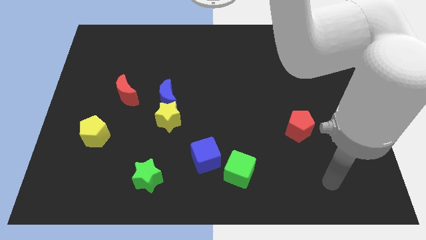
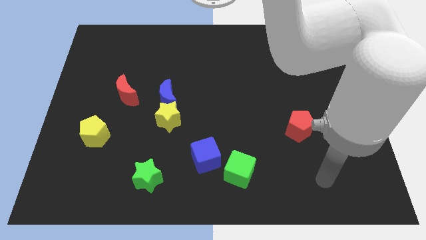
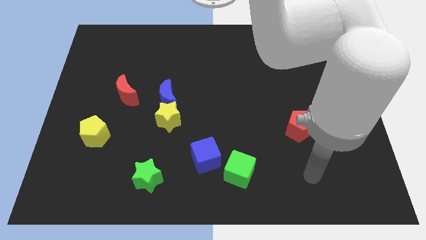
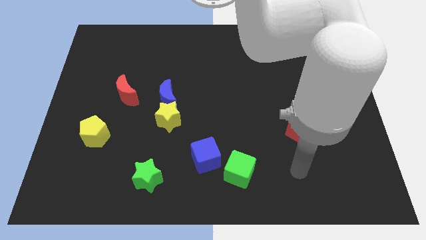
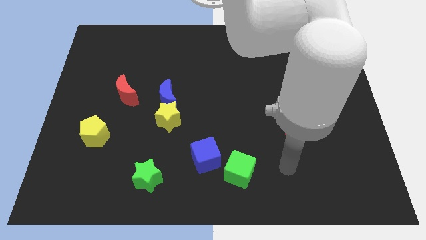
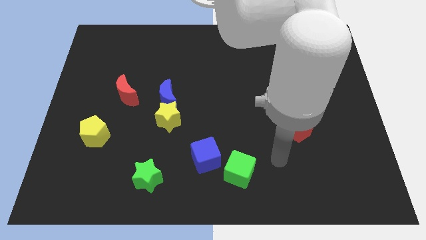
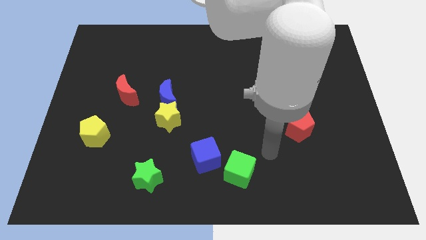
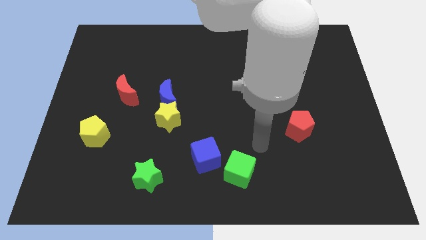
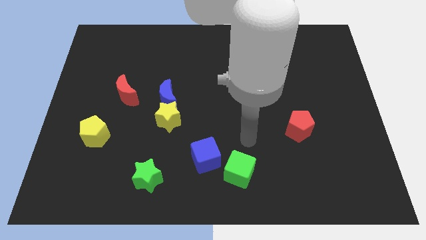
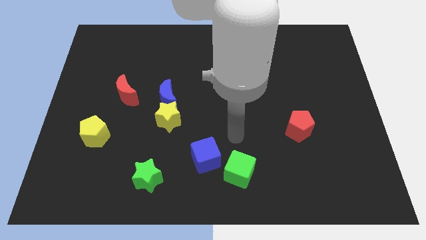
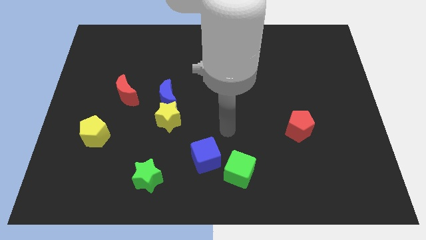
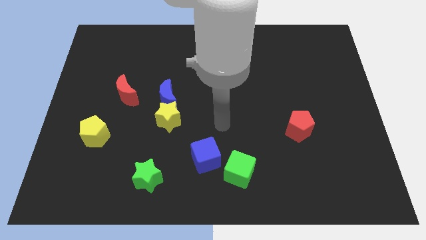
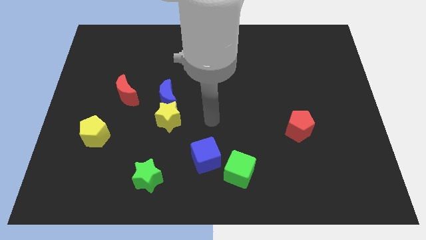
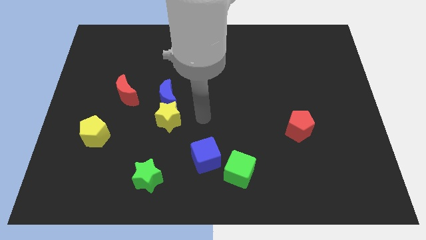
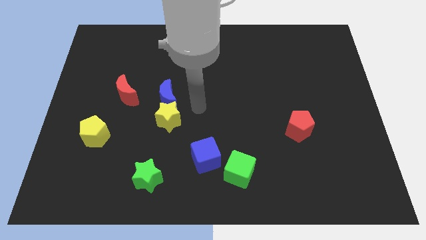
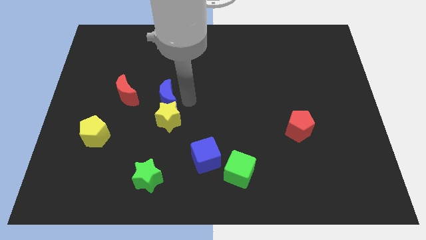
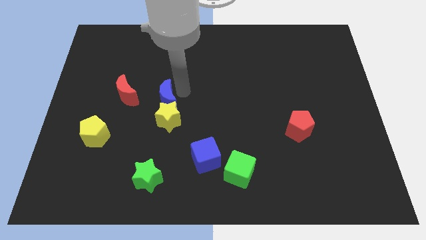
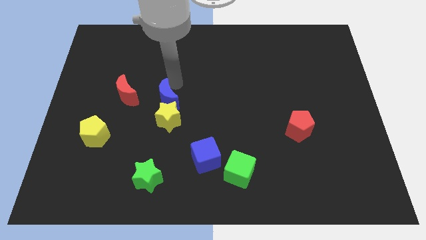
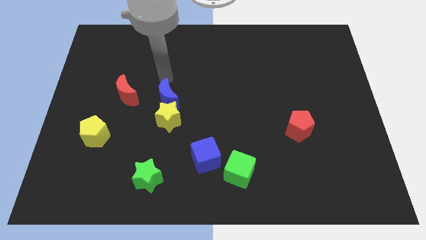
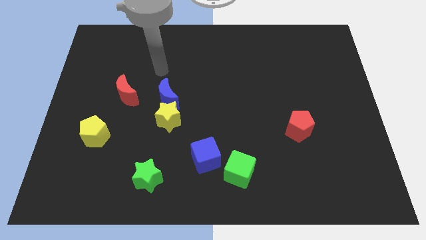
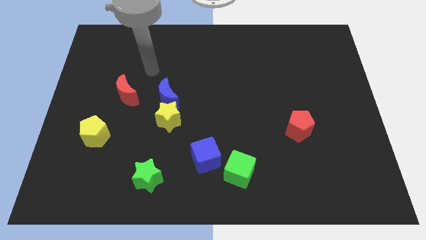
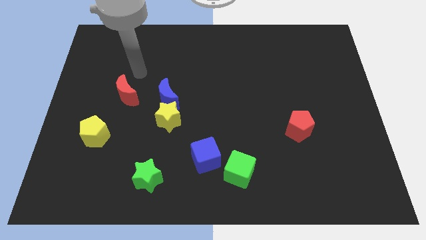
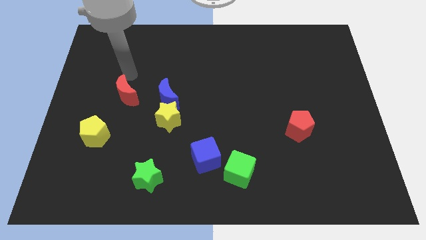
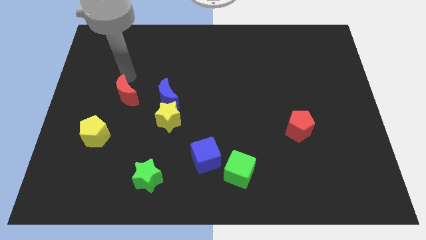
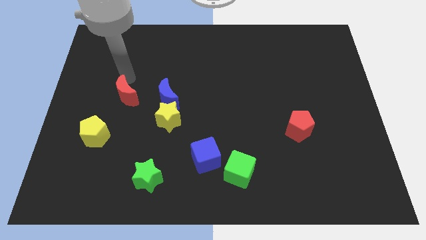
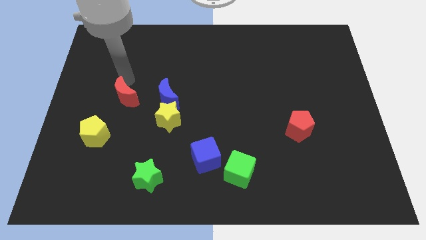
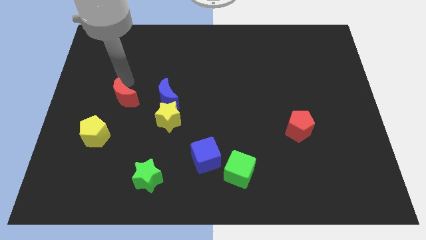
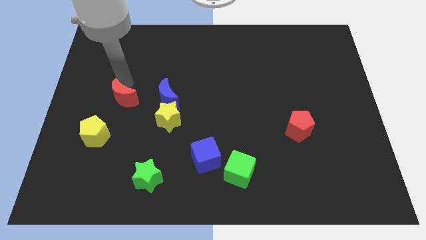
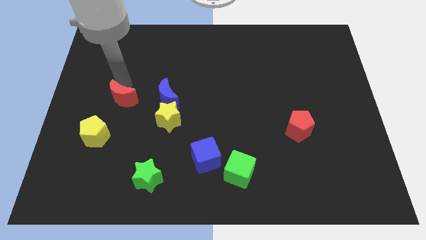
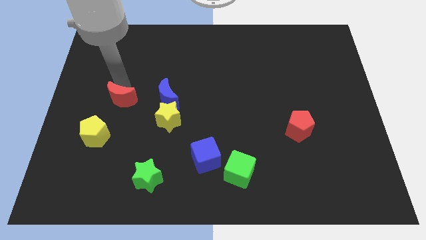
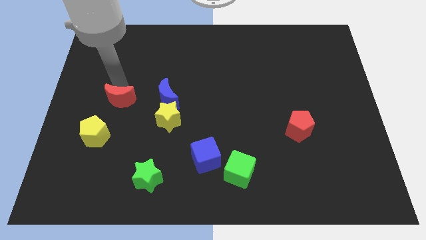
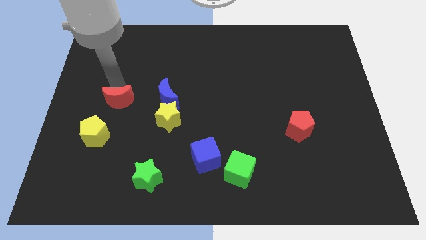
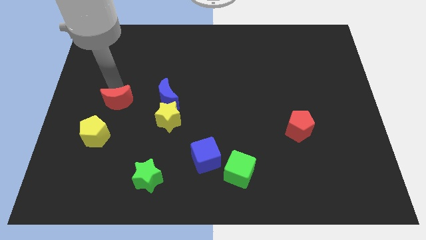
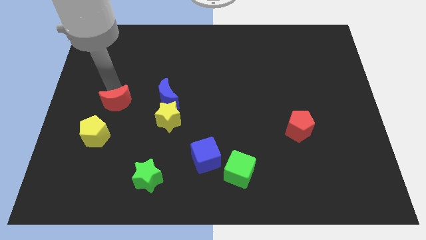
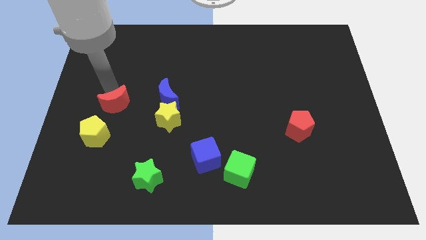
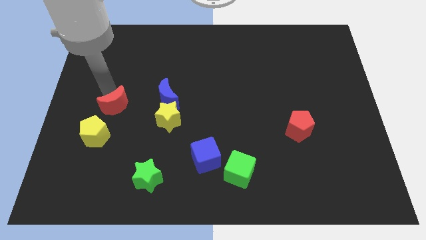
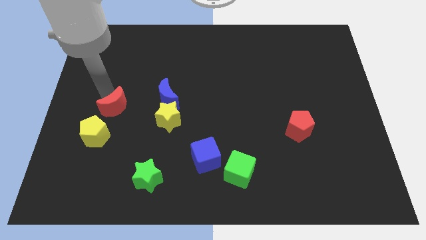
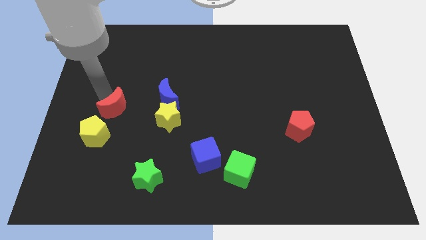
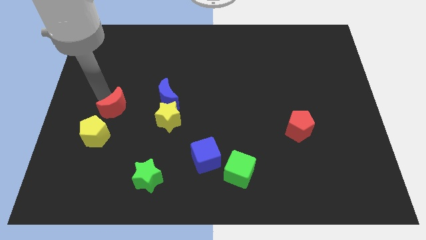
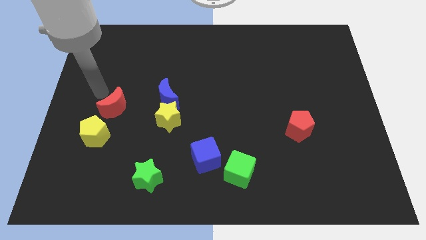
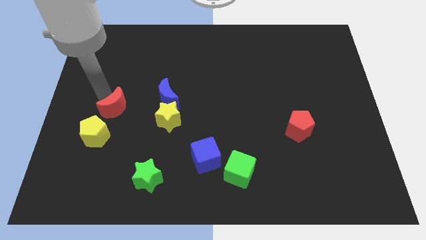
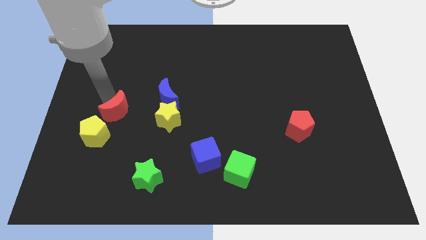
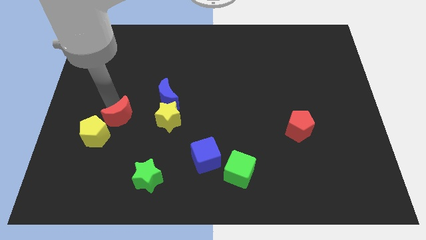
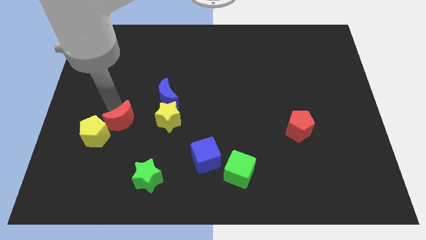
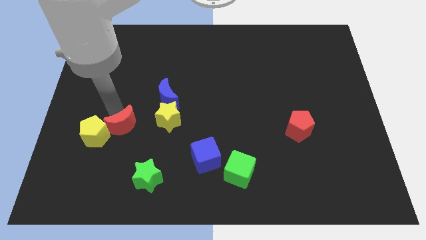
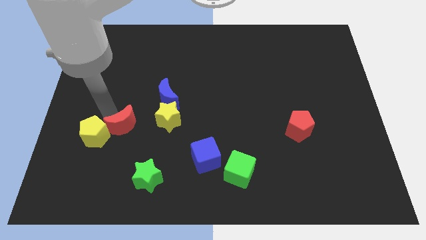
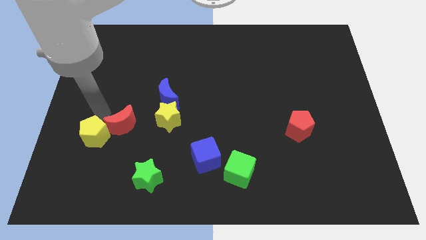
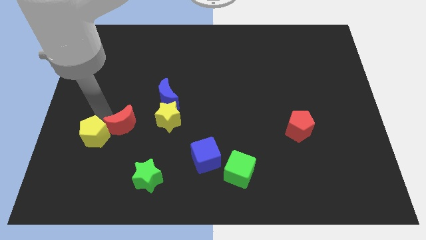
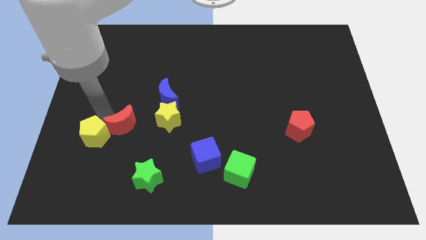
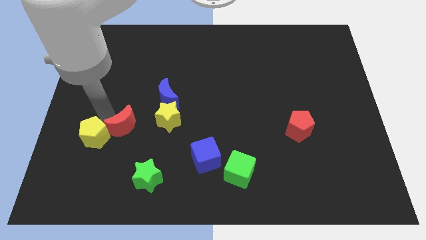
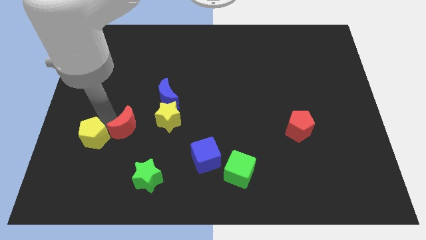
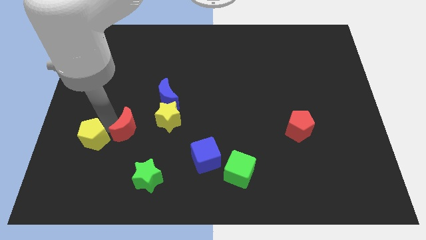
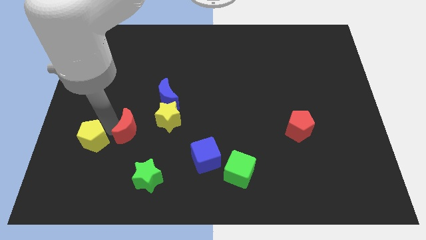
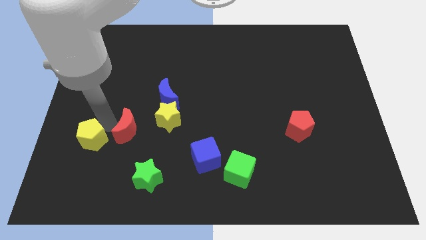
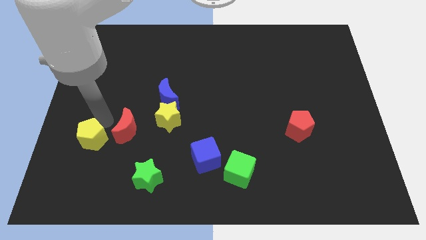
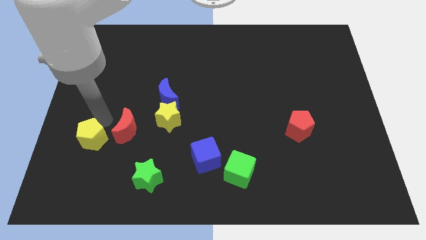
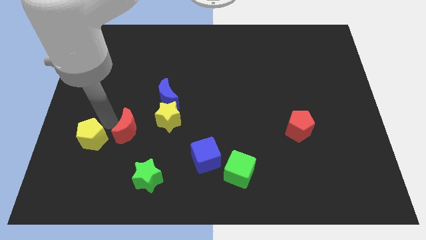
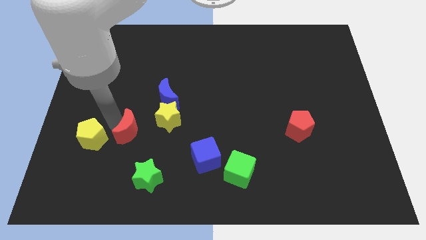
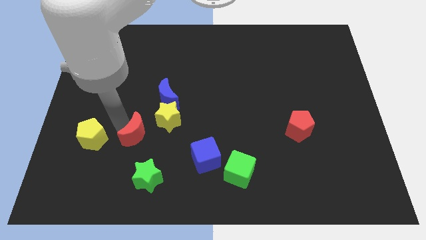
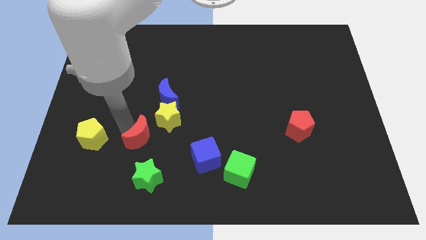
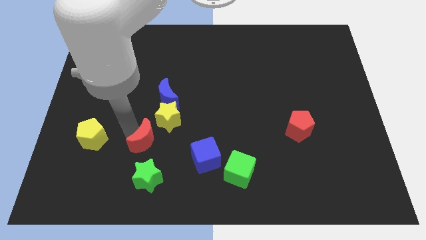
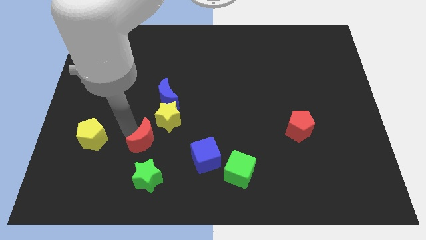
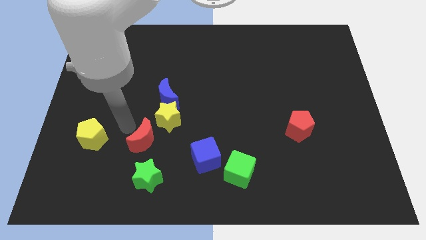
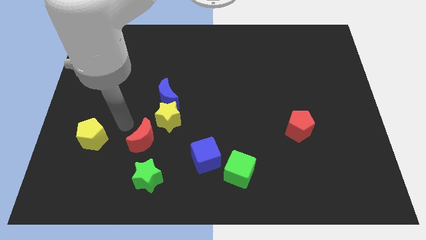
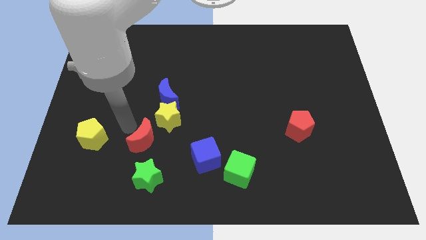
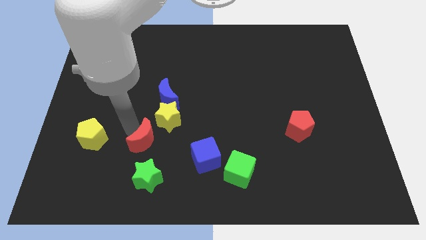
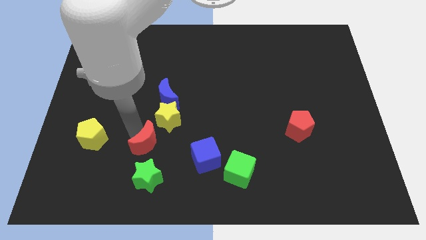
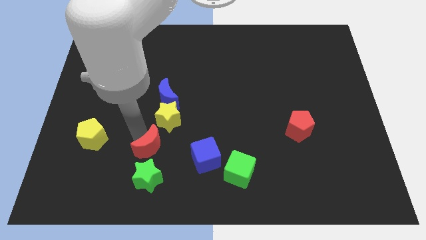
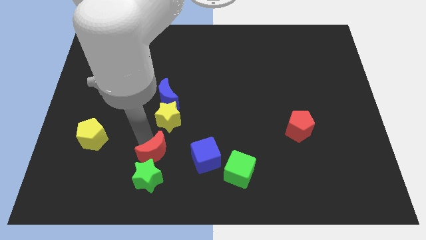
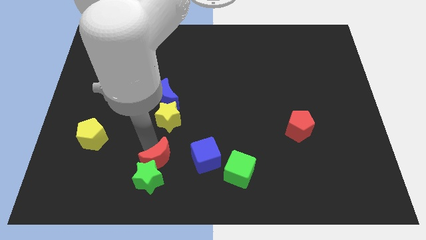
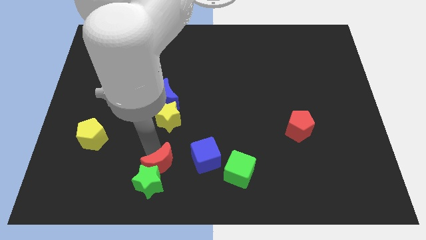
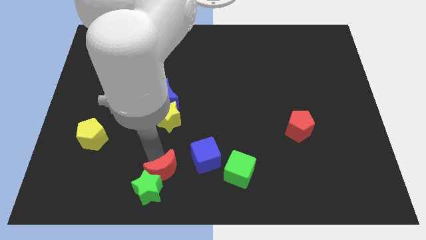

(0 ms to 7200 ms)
move the red moon to the bottom left side of the blue cube
